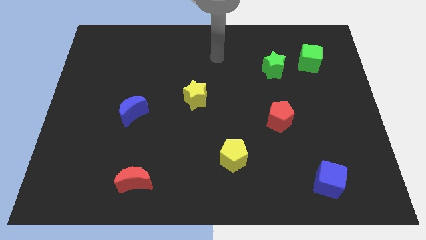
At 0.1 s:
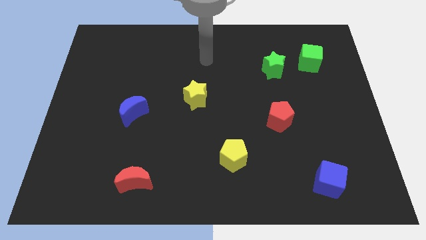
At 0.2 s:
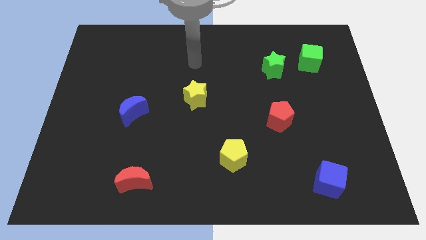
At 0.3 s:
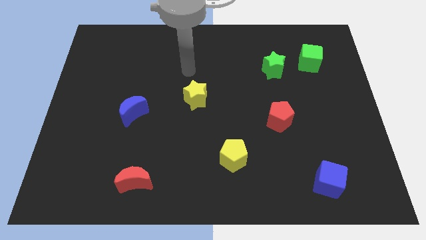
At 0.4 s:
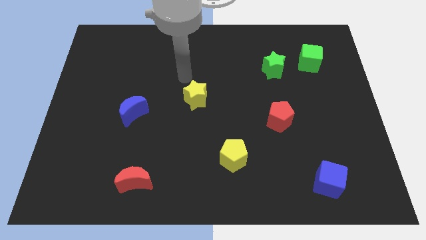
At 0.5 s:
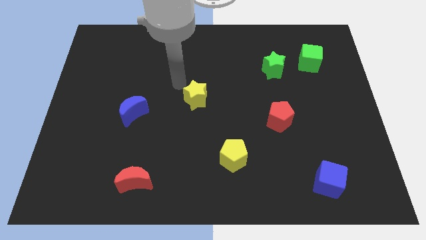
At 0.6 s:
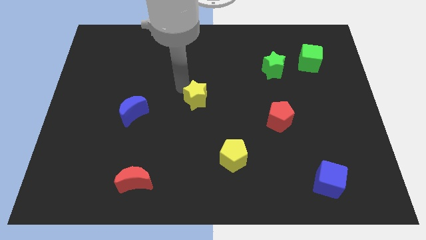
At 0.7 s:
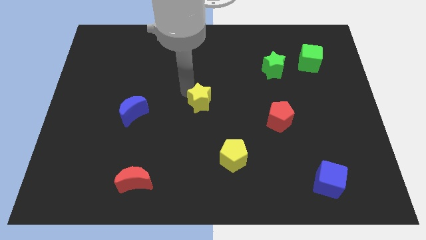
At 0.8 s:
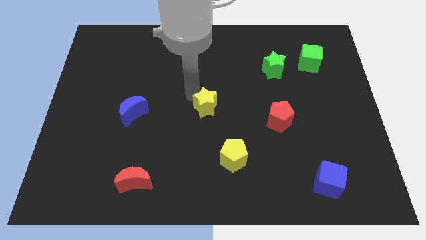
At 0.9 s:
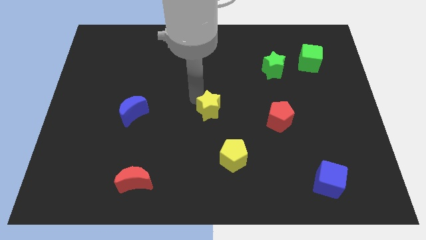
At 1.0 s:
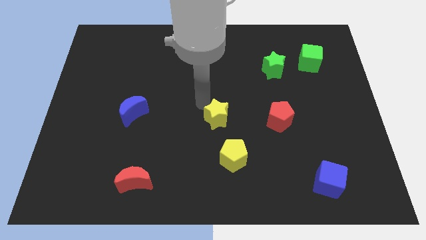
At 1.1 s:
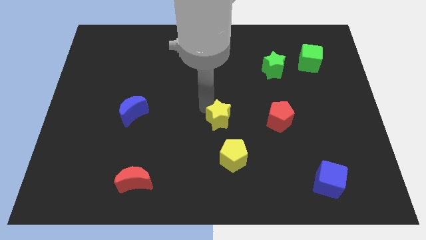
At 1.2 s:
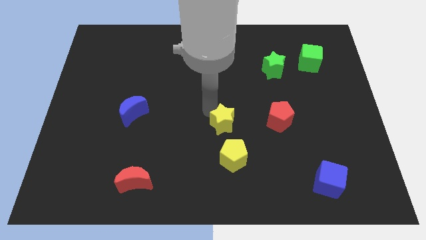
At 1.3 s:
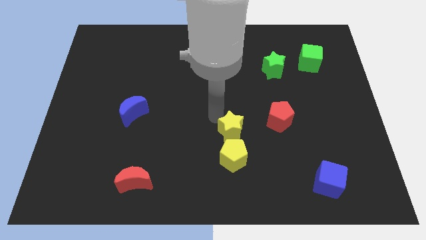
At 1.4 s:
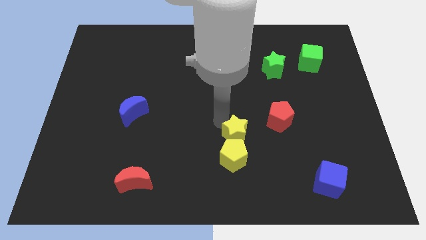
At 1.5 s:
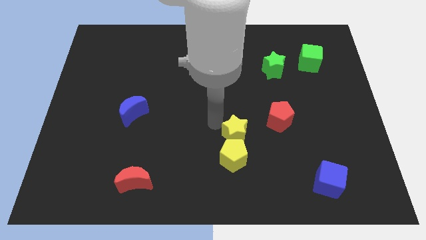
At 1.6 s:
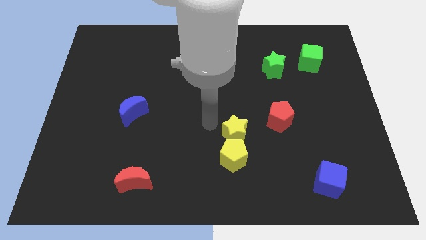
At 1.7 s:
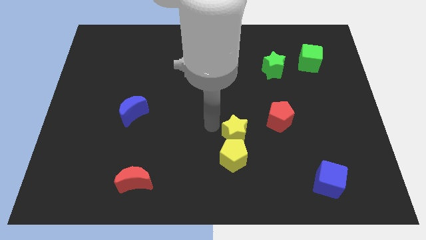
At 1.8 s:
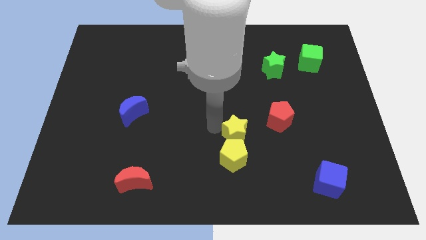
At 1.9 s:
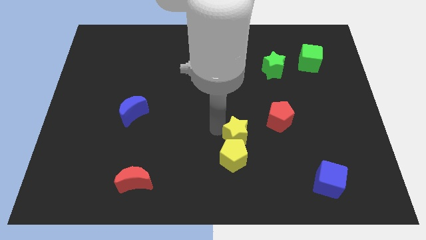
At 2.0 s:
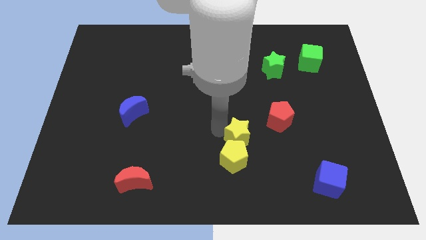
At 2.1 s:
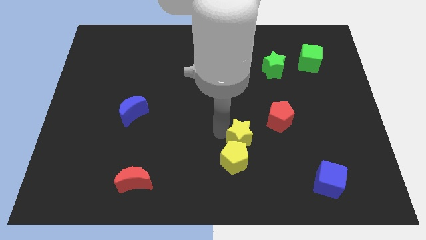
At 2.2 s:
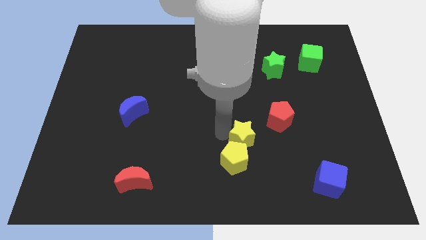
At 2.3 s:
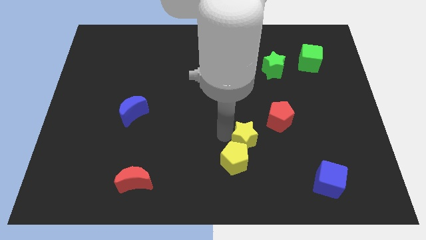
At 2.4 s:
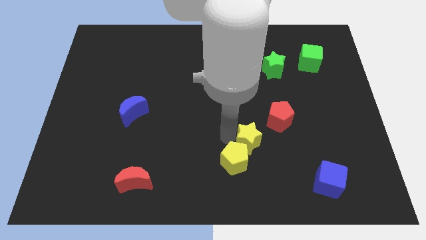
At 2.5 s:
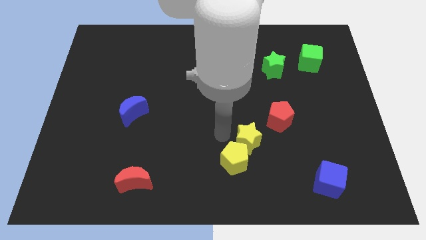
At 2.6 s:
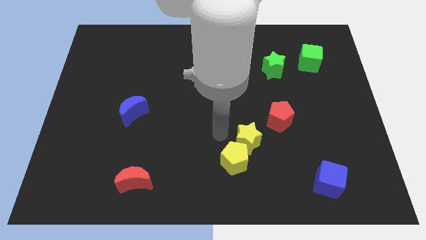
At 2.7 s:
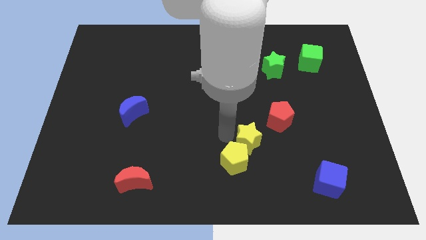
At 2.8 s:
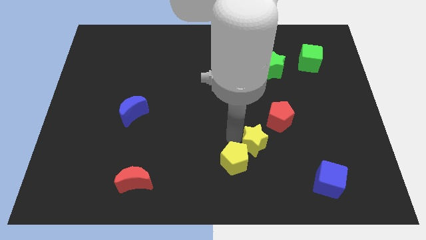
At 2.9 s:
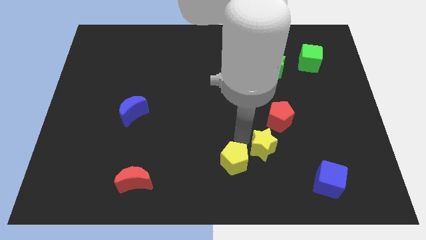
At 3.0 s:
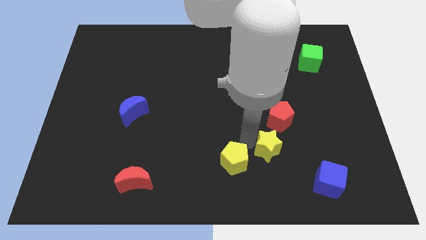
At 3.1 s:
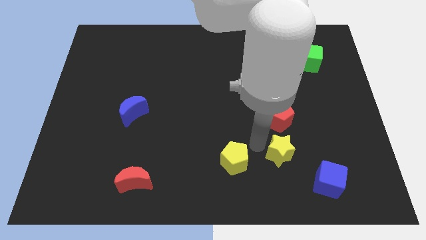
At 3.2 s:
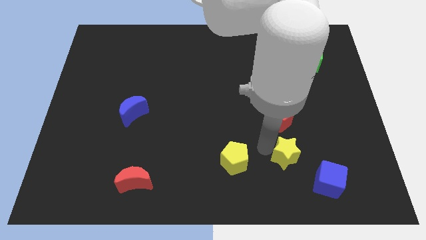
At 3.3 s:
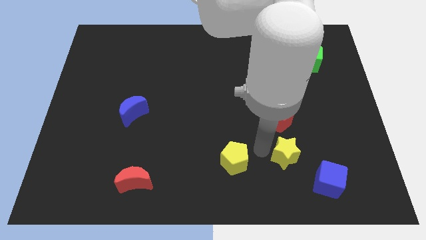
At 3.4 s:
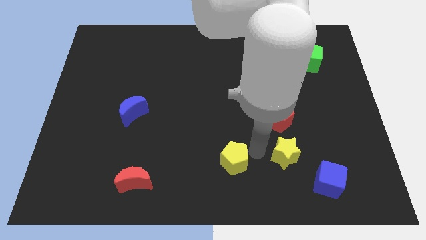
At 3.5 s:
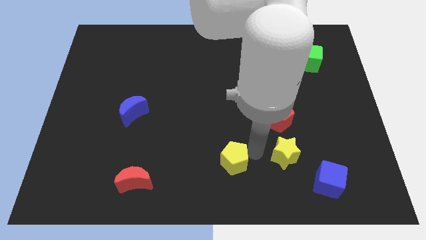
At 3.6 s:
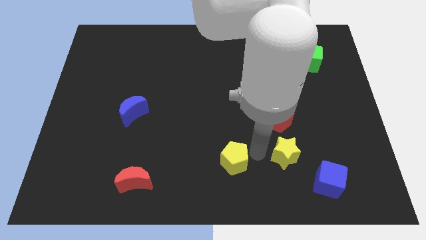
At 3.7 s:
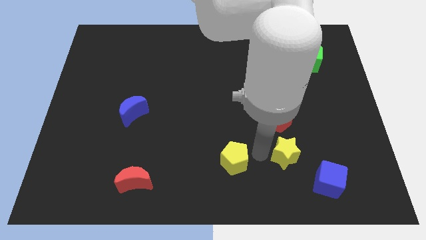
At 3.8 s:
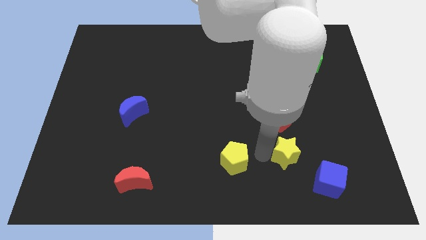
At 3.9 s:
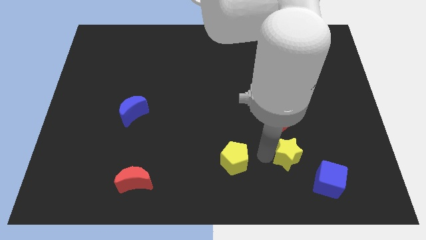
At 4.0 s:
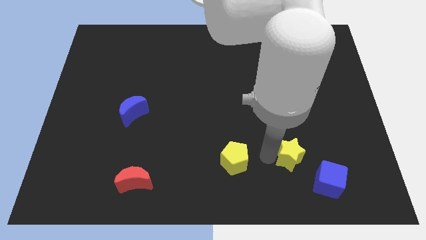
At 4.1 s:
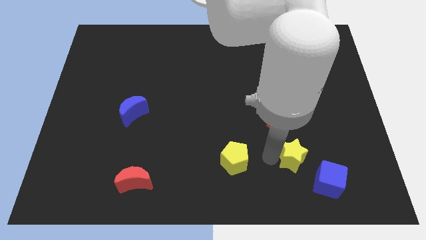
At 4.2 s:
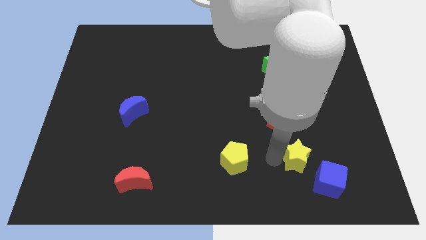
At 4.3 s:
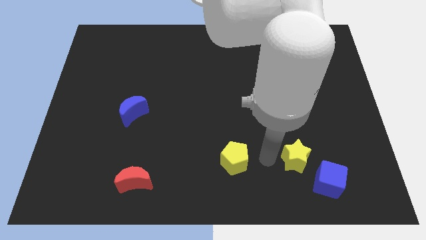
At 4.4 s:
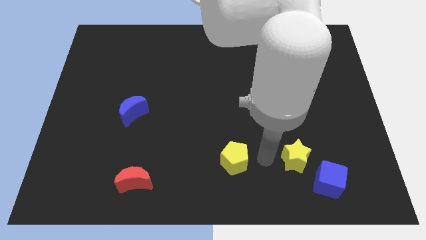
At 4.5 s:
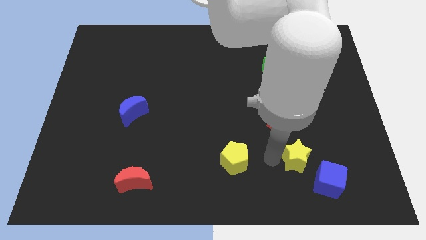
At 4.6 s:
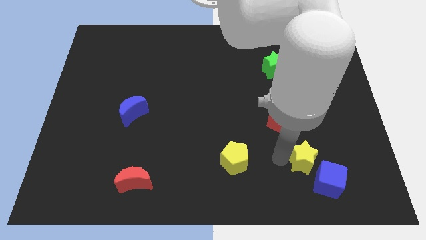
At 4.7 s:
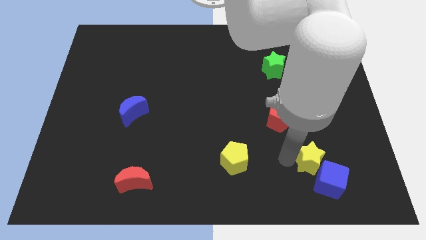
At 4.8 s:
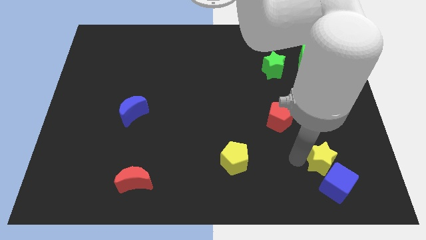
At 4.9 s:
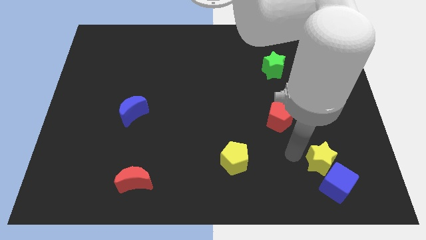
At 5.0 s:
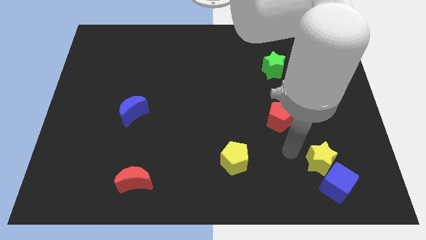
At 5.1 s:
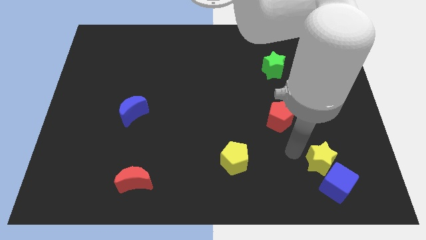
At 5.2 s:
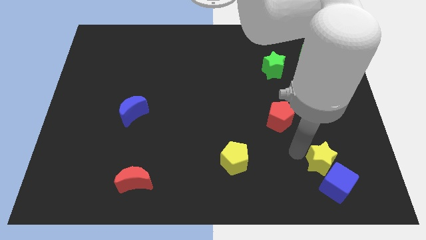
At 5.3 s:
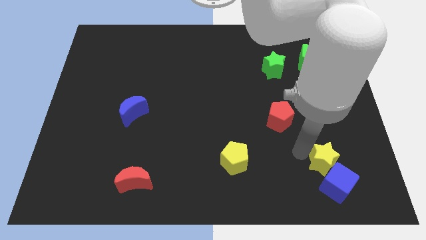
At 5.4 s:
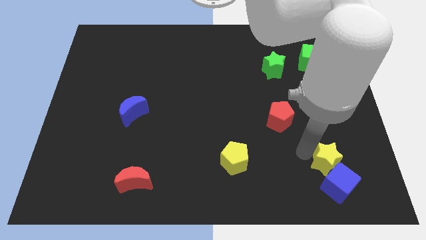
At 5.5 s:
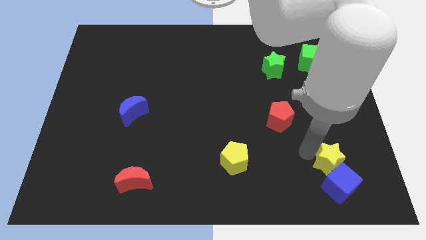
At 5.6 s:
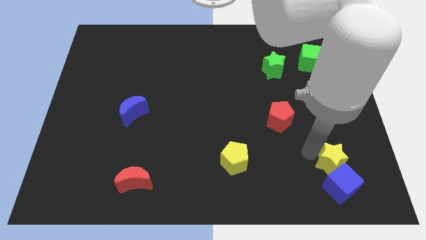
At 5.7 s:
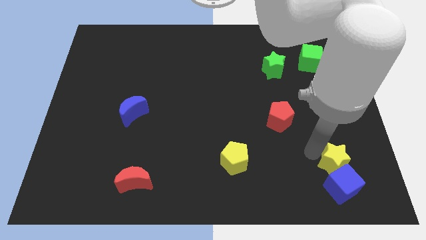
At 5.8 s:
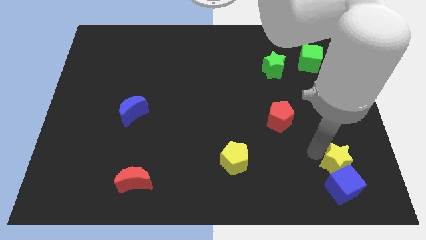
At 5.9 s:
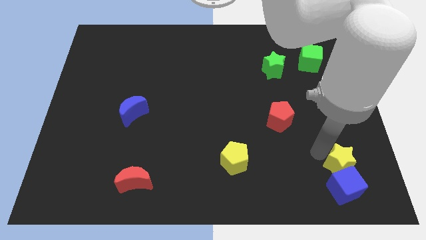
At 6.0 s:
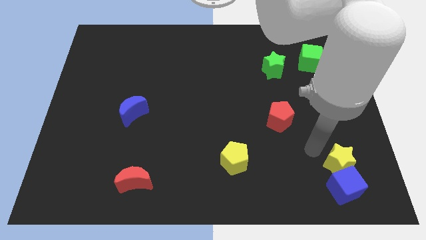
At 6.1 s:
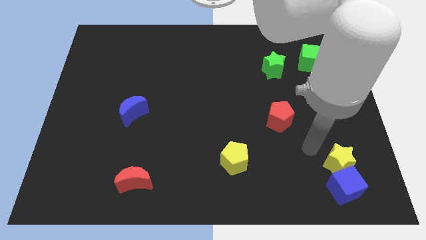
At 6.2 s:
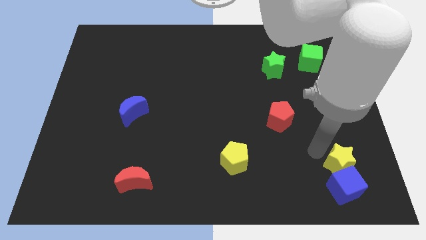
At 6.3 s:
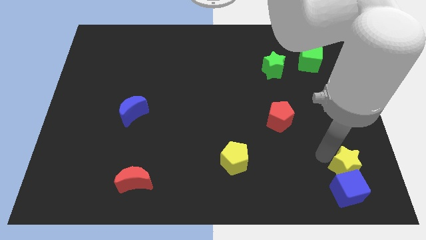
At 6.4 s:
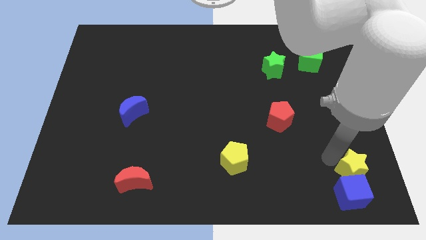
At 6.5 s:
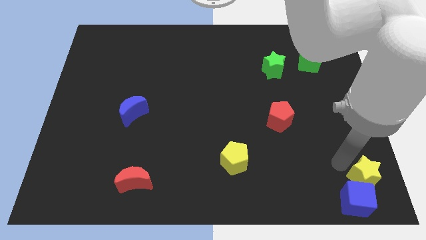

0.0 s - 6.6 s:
slide the yellow star to the bottom right corner

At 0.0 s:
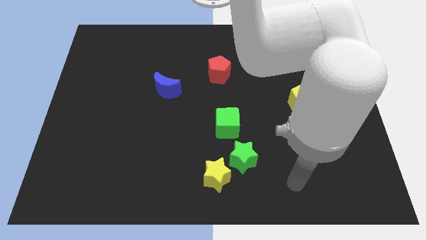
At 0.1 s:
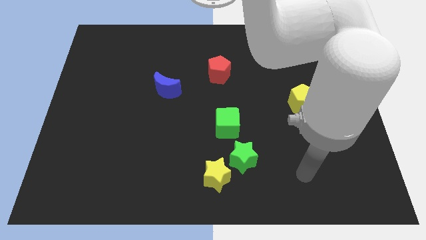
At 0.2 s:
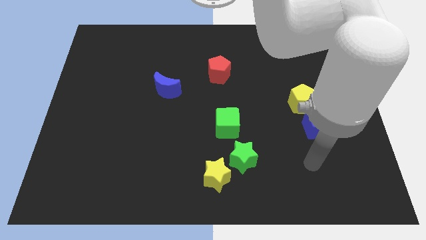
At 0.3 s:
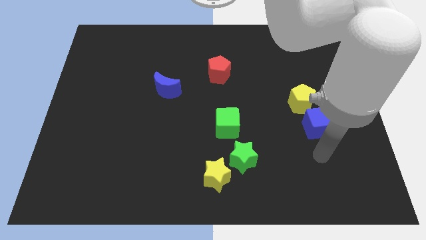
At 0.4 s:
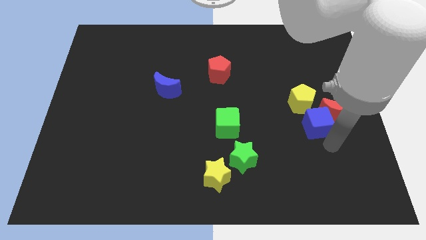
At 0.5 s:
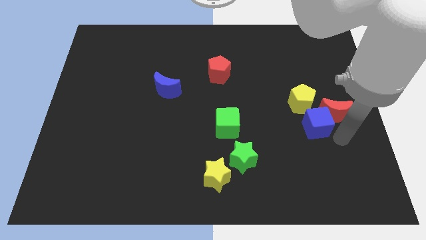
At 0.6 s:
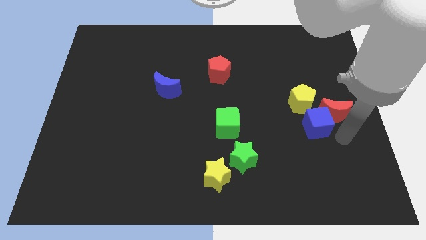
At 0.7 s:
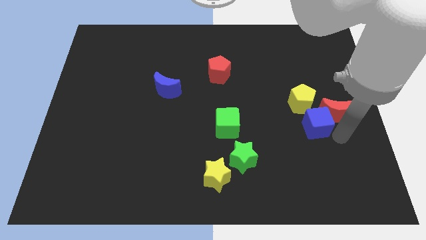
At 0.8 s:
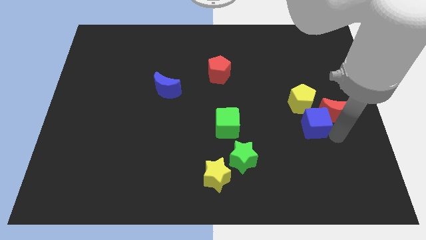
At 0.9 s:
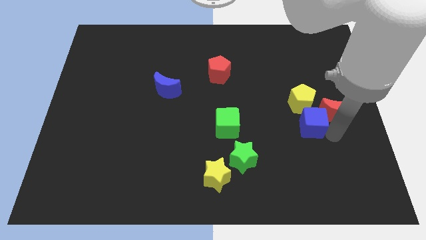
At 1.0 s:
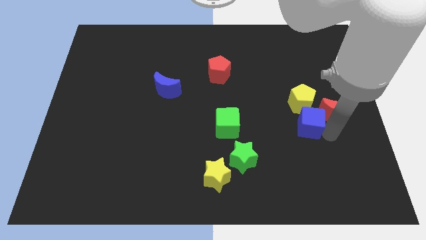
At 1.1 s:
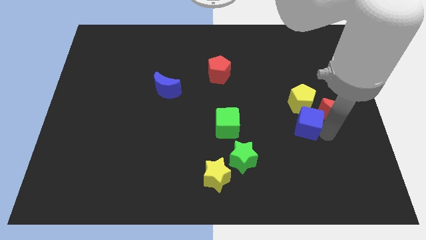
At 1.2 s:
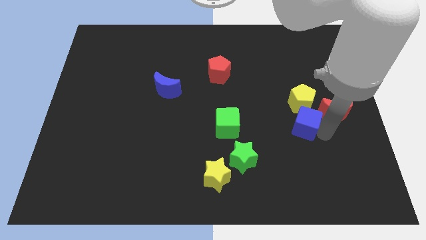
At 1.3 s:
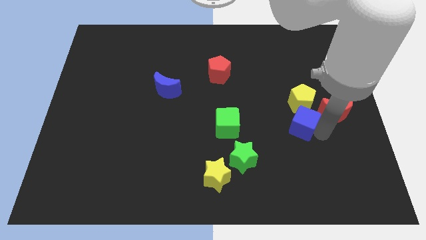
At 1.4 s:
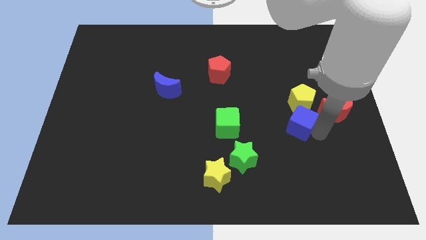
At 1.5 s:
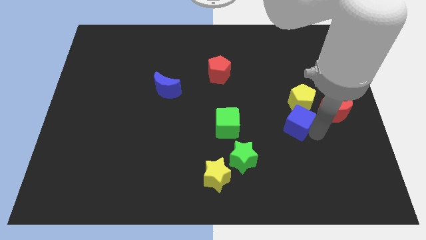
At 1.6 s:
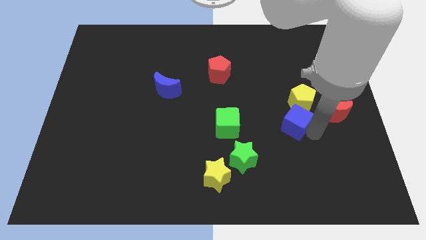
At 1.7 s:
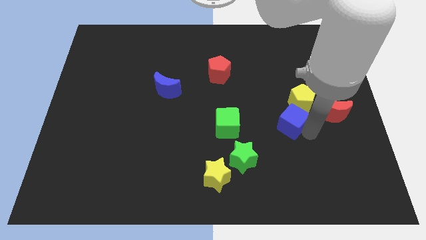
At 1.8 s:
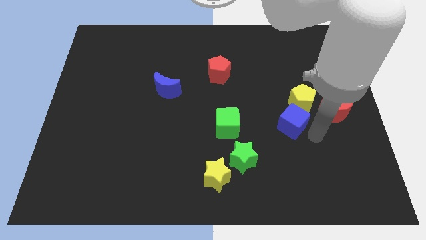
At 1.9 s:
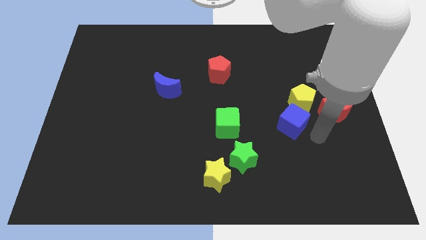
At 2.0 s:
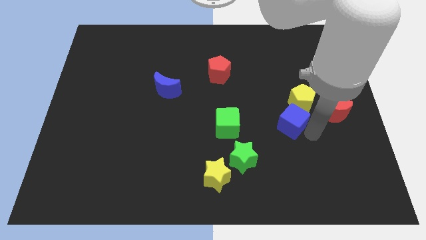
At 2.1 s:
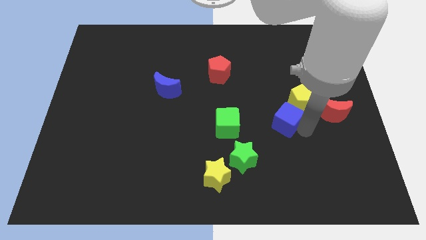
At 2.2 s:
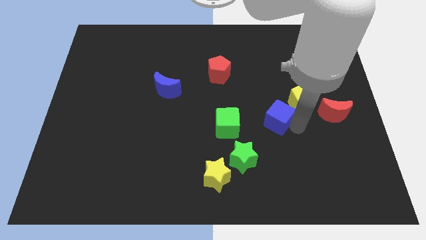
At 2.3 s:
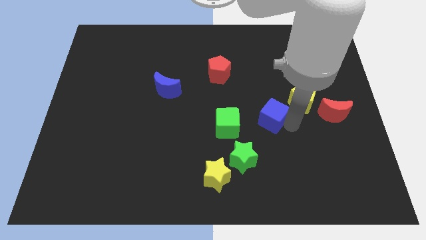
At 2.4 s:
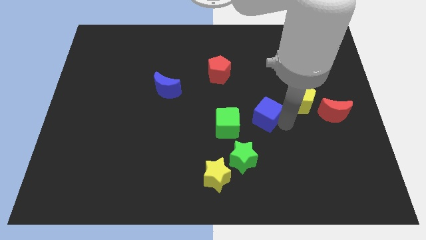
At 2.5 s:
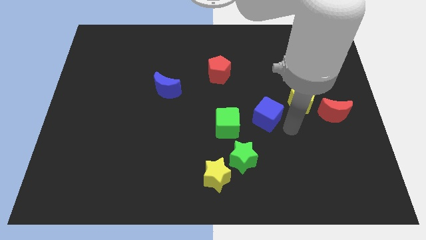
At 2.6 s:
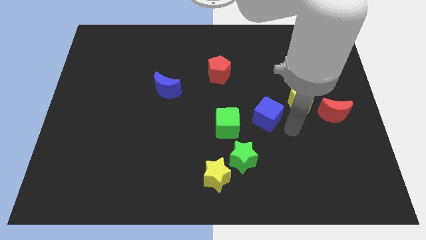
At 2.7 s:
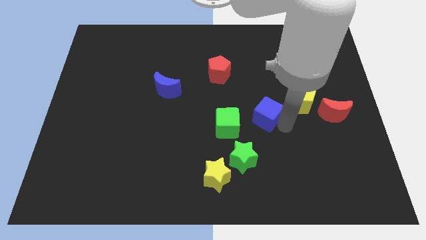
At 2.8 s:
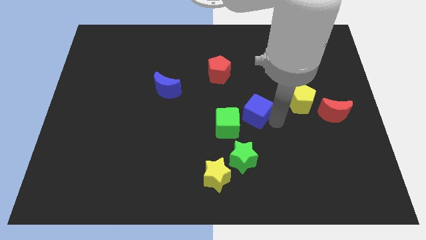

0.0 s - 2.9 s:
move the blue cube to the center
